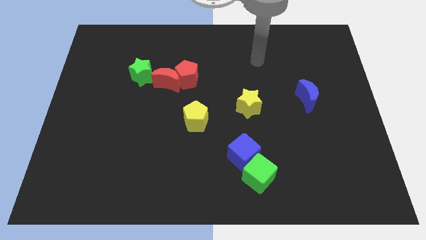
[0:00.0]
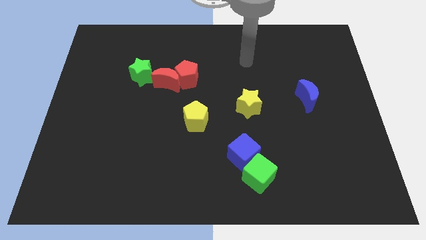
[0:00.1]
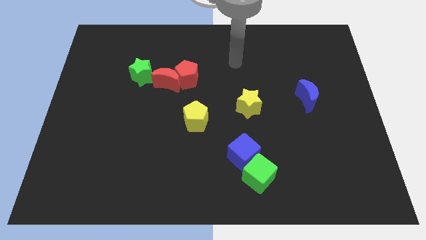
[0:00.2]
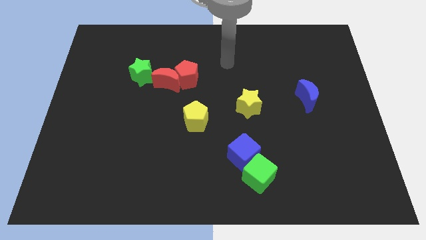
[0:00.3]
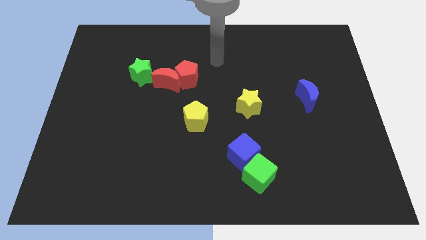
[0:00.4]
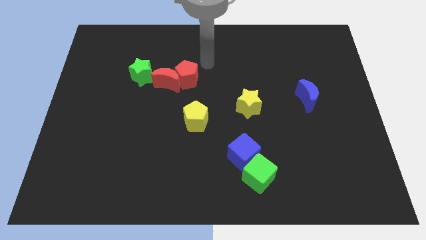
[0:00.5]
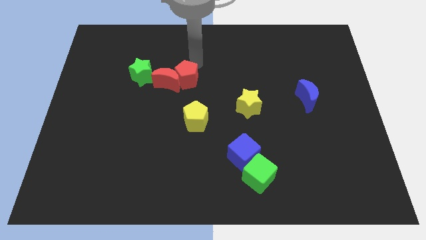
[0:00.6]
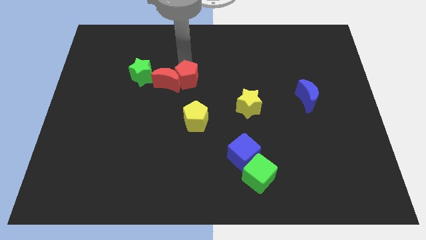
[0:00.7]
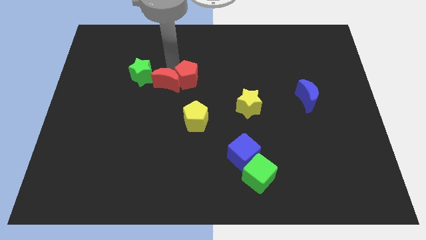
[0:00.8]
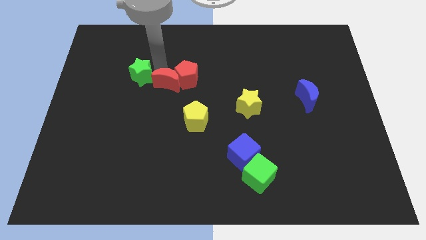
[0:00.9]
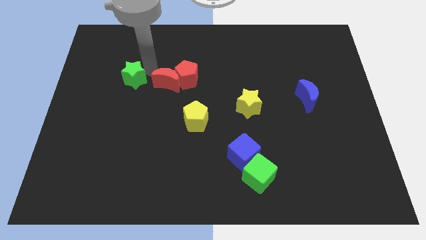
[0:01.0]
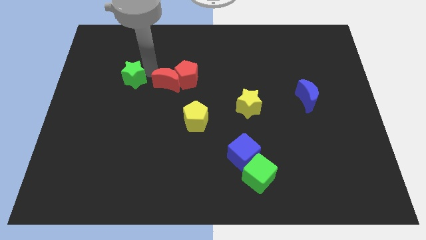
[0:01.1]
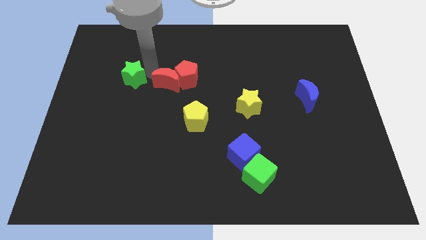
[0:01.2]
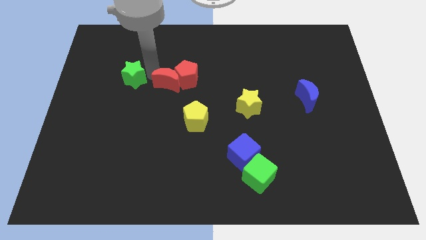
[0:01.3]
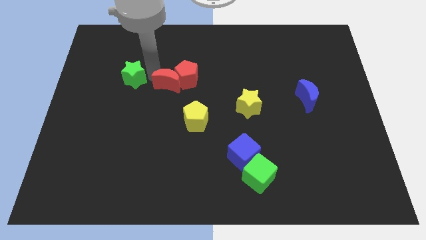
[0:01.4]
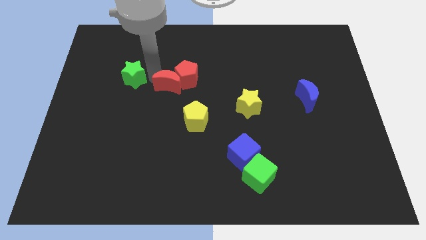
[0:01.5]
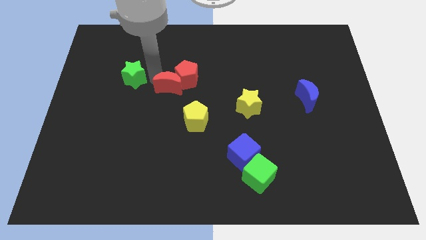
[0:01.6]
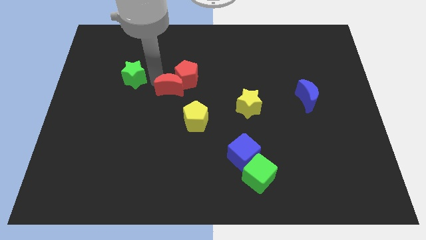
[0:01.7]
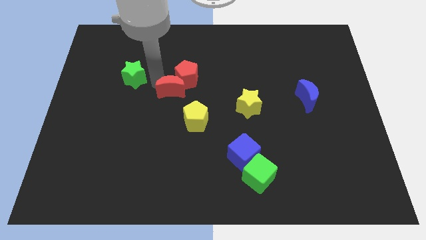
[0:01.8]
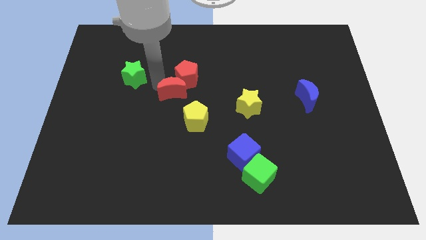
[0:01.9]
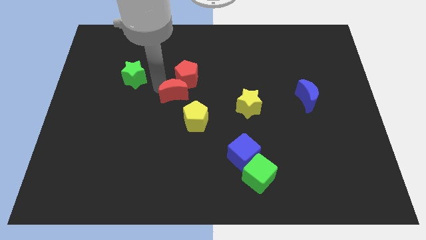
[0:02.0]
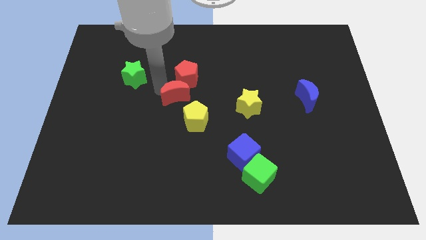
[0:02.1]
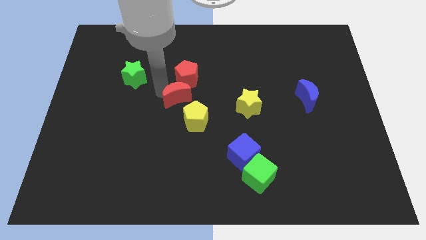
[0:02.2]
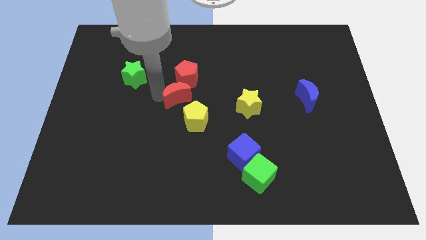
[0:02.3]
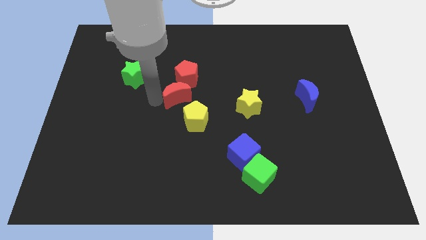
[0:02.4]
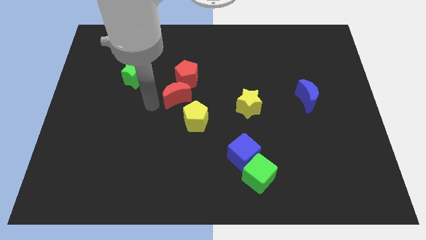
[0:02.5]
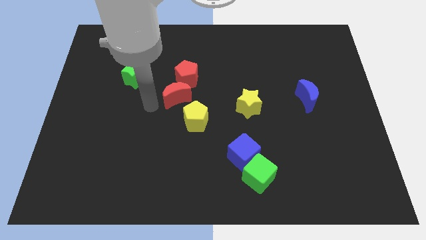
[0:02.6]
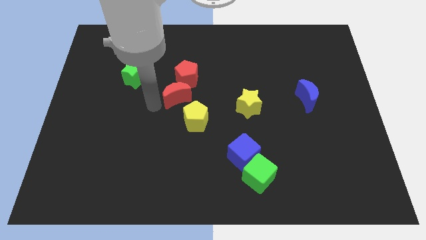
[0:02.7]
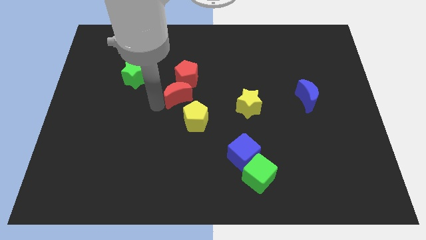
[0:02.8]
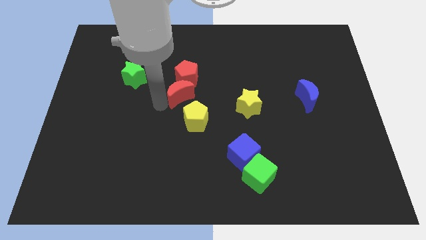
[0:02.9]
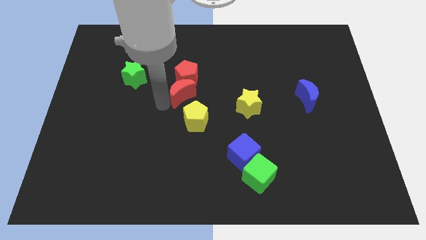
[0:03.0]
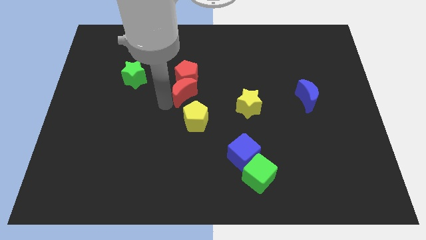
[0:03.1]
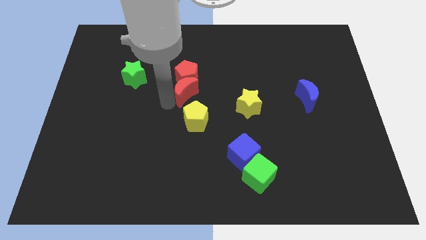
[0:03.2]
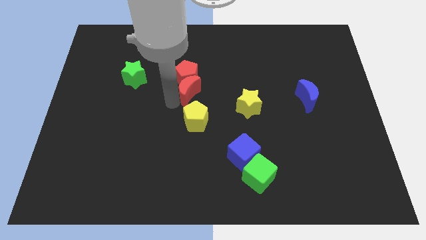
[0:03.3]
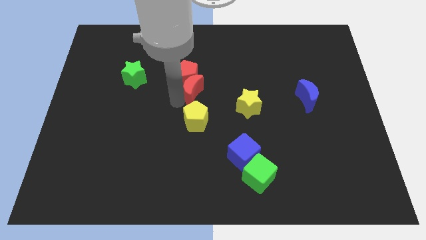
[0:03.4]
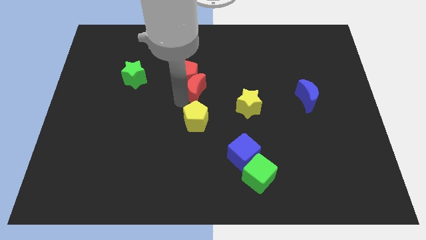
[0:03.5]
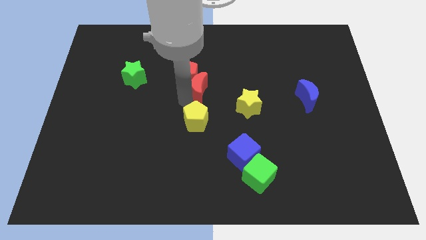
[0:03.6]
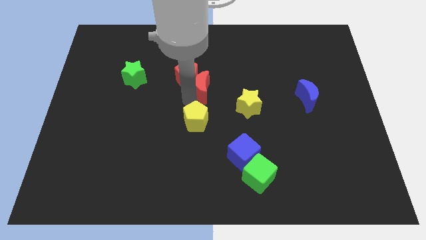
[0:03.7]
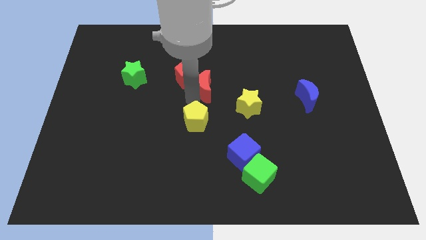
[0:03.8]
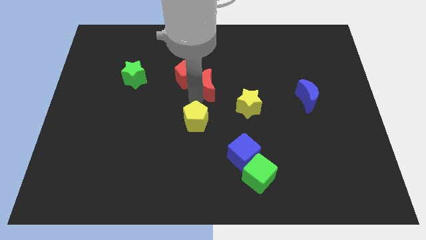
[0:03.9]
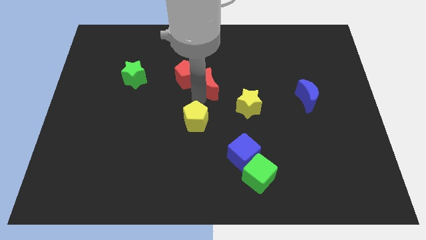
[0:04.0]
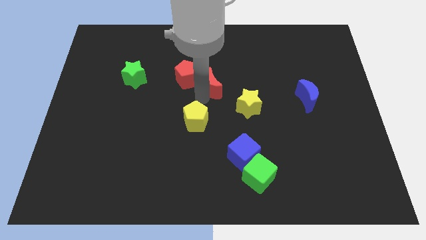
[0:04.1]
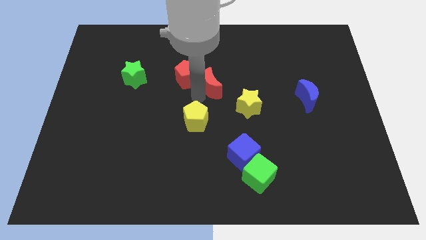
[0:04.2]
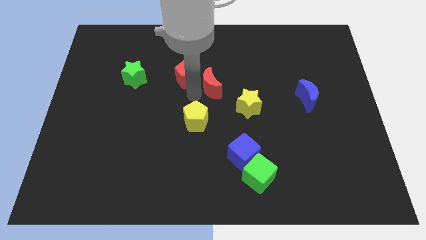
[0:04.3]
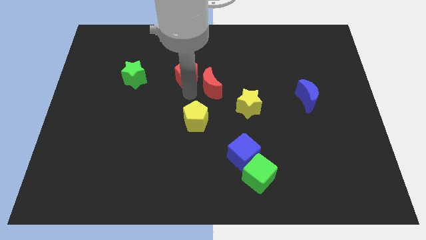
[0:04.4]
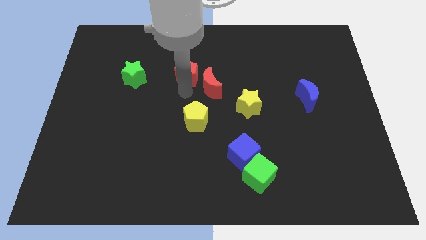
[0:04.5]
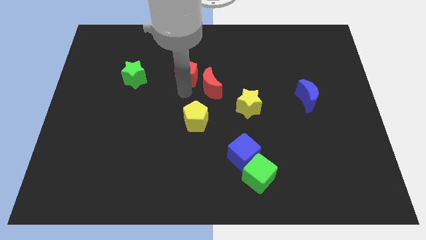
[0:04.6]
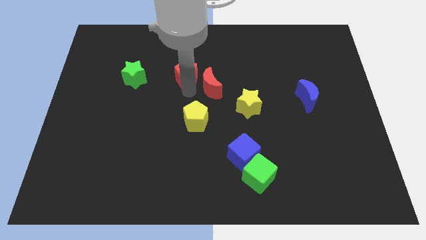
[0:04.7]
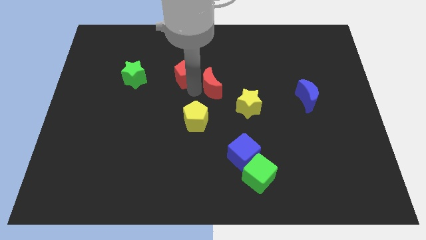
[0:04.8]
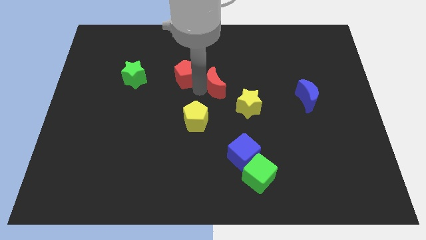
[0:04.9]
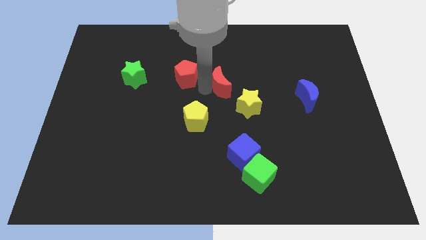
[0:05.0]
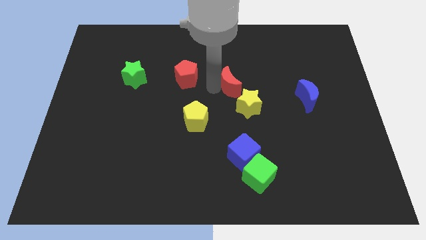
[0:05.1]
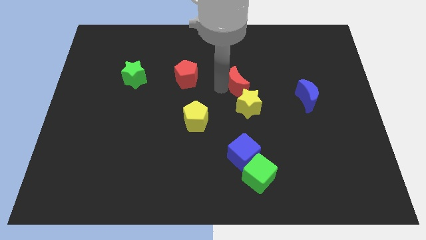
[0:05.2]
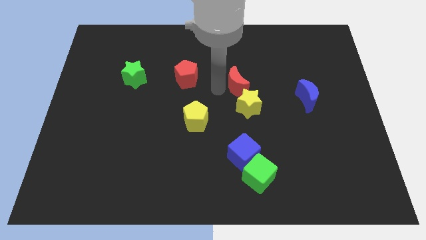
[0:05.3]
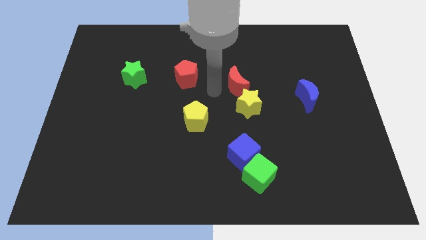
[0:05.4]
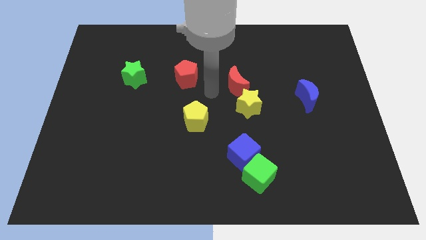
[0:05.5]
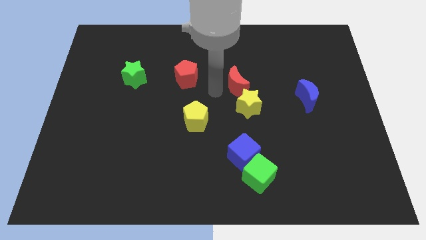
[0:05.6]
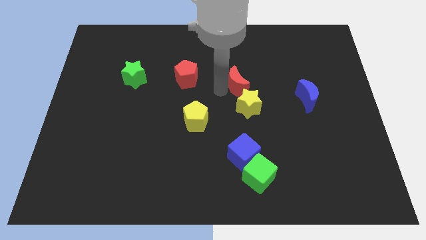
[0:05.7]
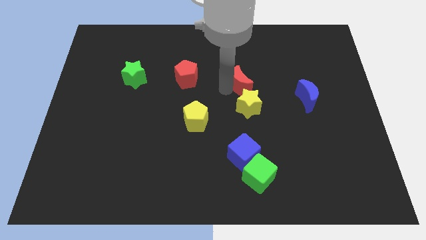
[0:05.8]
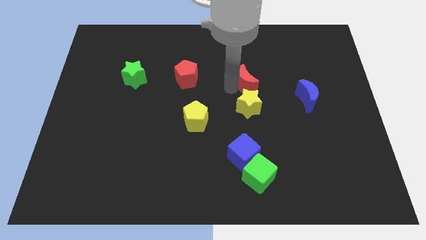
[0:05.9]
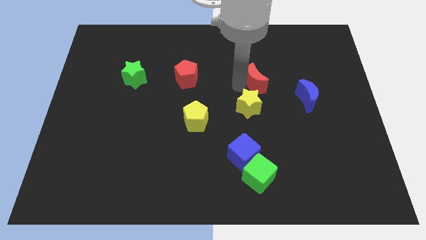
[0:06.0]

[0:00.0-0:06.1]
push the red moon right

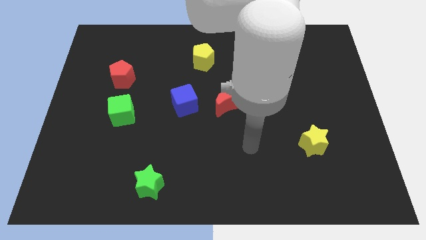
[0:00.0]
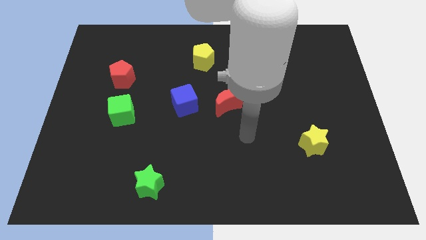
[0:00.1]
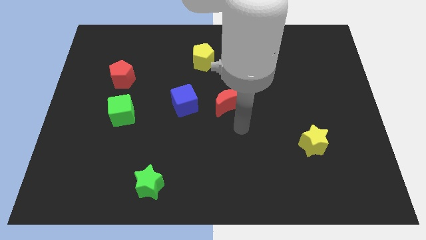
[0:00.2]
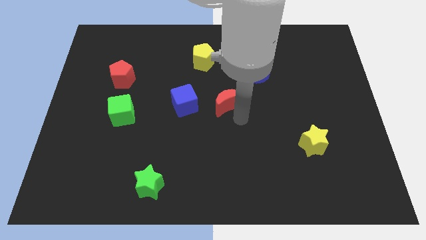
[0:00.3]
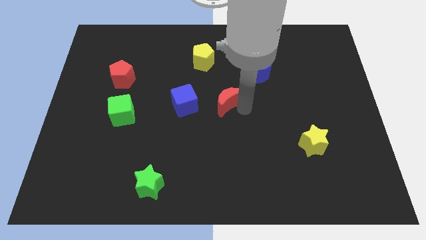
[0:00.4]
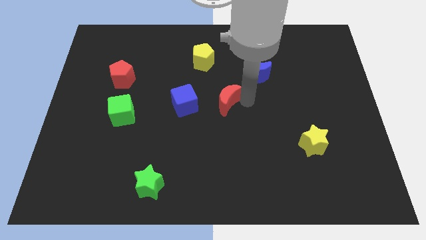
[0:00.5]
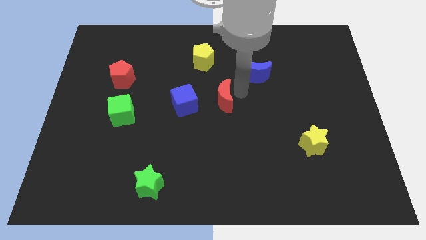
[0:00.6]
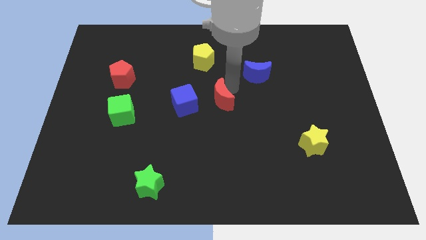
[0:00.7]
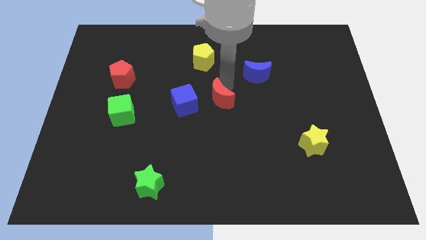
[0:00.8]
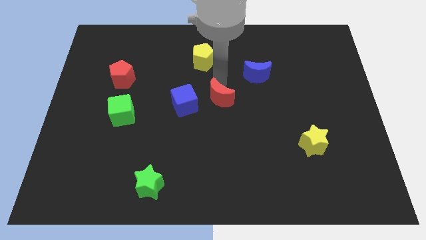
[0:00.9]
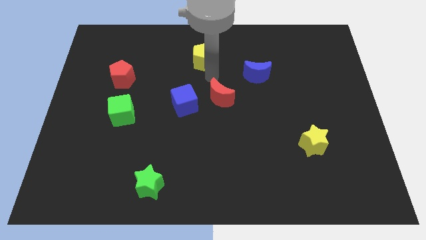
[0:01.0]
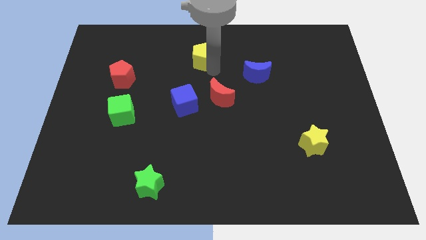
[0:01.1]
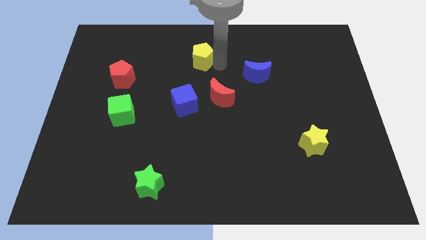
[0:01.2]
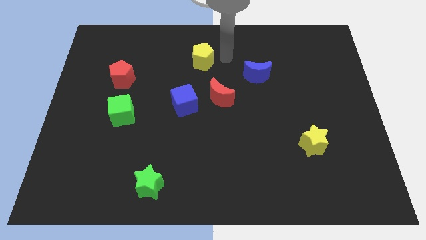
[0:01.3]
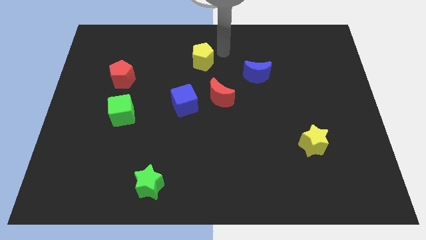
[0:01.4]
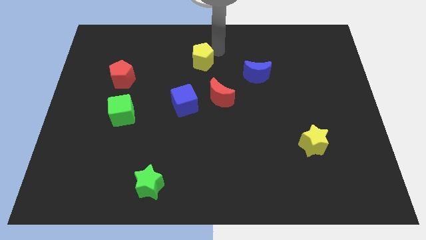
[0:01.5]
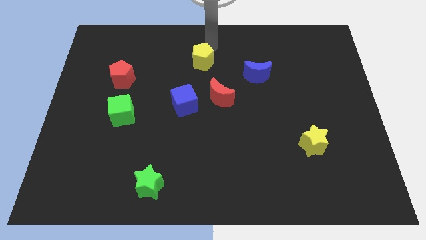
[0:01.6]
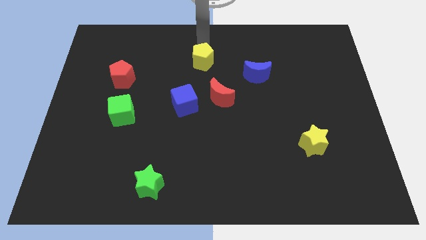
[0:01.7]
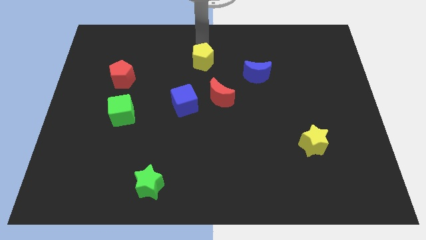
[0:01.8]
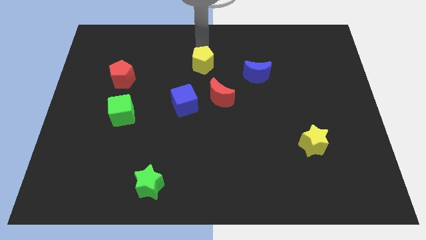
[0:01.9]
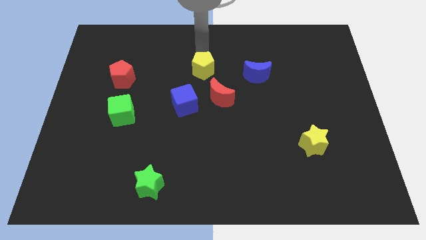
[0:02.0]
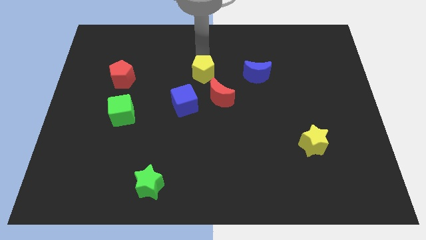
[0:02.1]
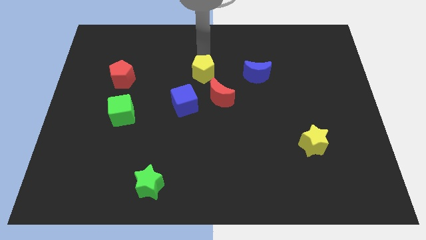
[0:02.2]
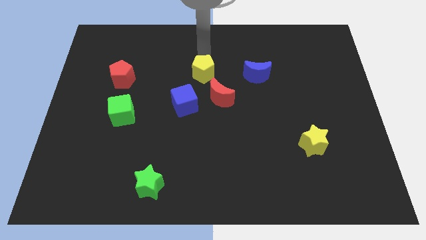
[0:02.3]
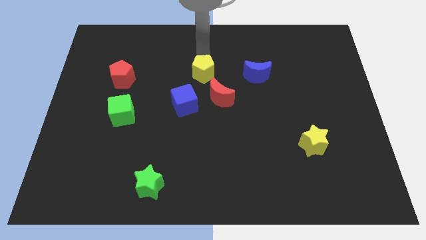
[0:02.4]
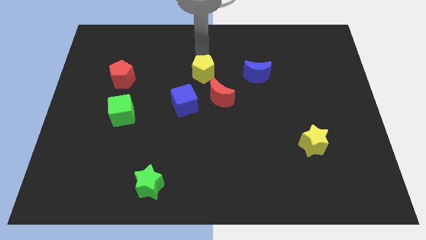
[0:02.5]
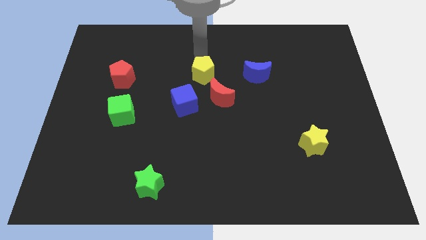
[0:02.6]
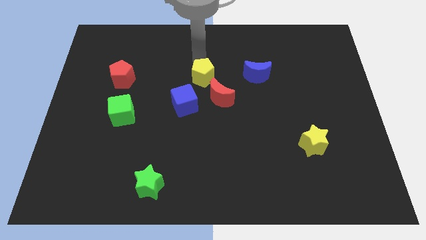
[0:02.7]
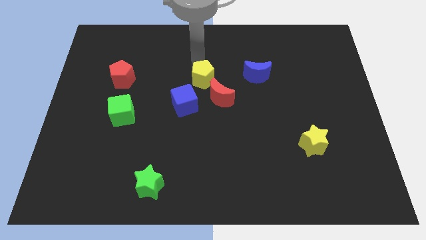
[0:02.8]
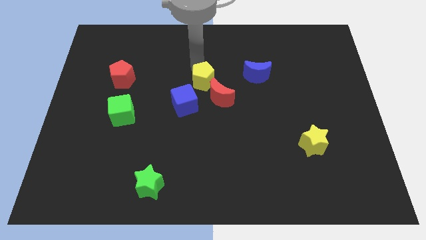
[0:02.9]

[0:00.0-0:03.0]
slide the yellow pentagon downwards slightly
